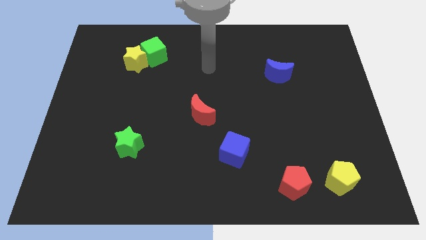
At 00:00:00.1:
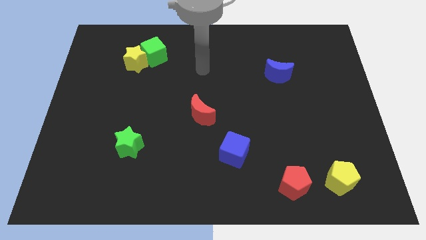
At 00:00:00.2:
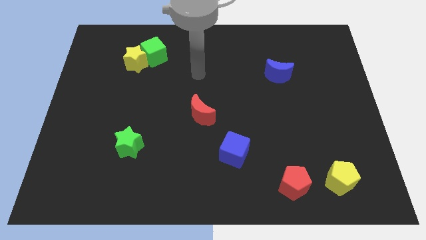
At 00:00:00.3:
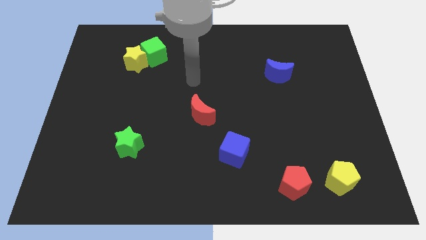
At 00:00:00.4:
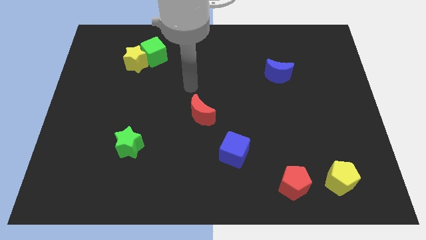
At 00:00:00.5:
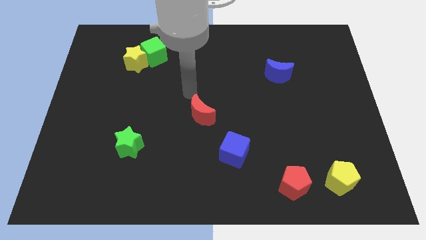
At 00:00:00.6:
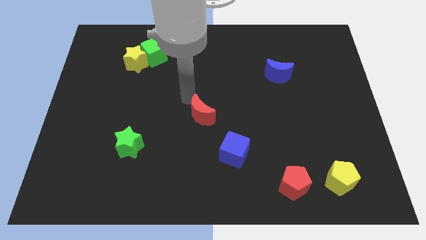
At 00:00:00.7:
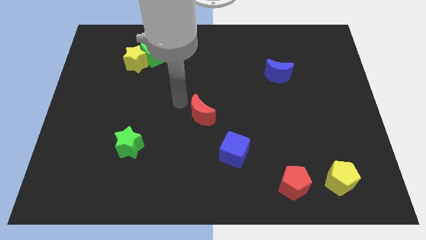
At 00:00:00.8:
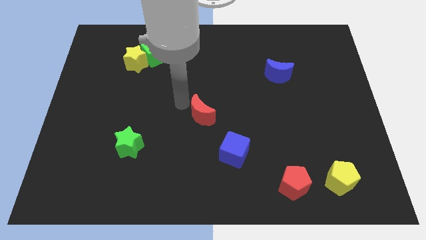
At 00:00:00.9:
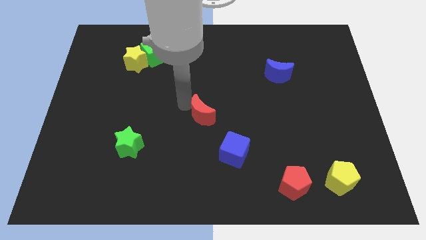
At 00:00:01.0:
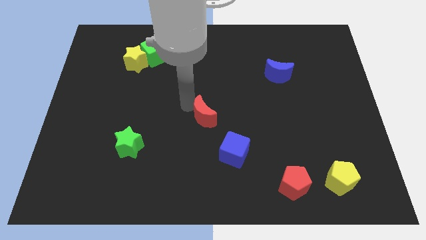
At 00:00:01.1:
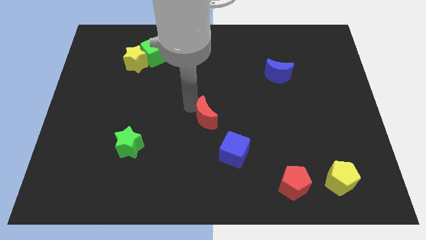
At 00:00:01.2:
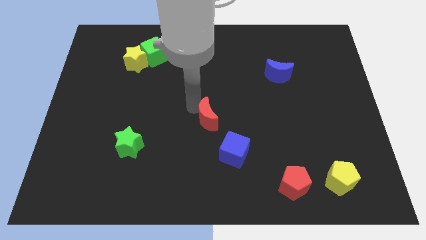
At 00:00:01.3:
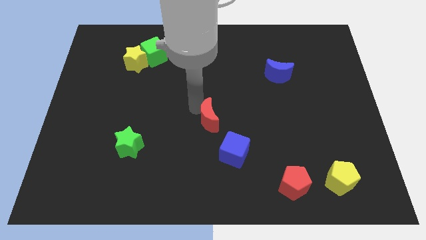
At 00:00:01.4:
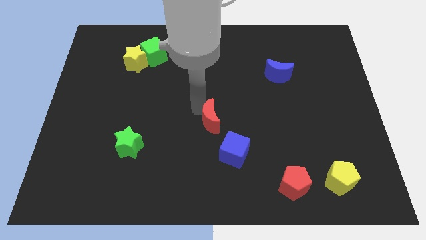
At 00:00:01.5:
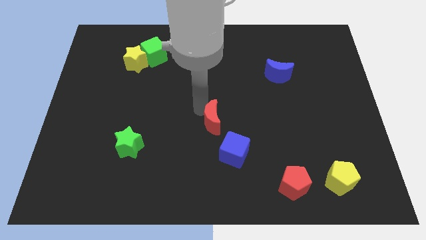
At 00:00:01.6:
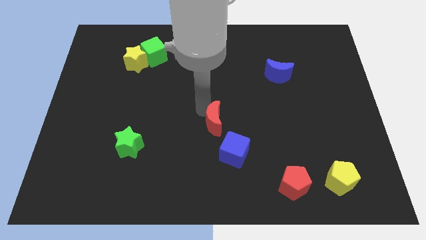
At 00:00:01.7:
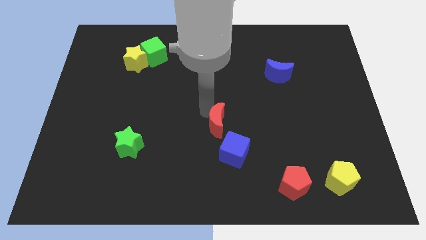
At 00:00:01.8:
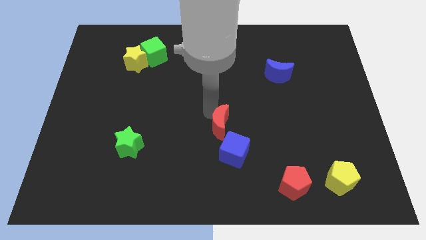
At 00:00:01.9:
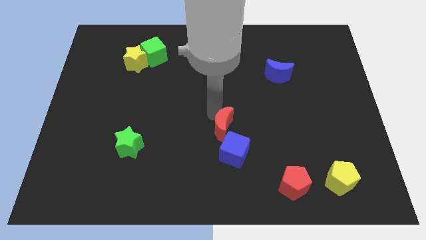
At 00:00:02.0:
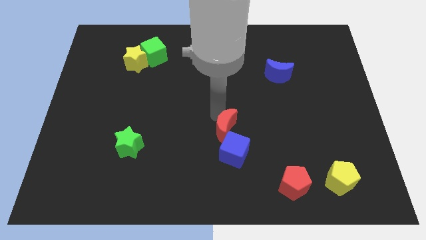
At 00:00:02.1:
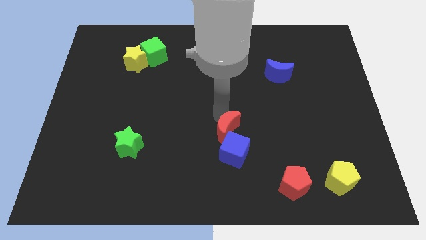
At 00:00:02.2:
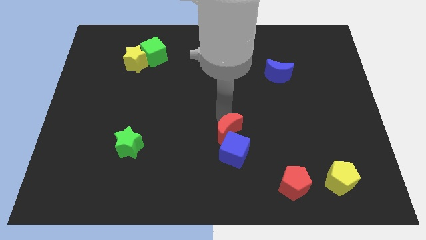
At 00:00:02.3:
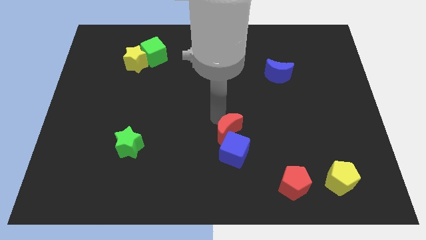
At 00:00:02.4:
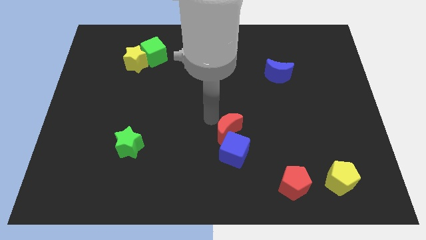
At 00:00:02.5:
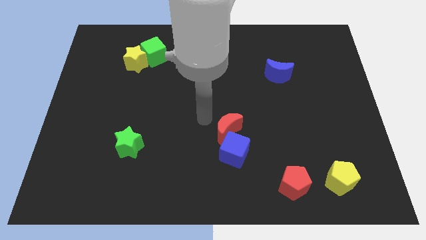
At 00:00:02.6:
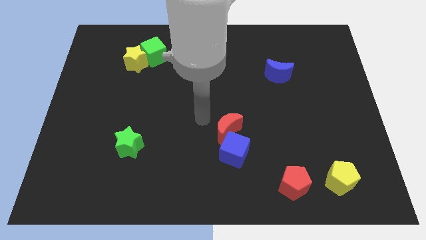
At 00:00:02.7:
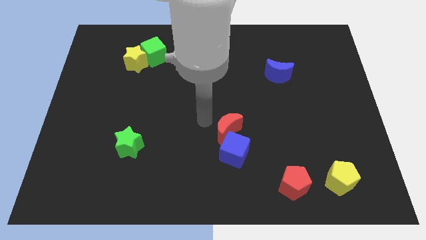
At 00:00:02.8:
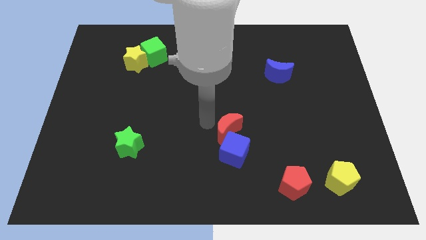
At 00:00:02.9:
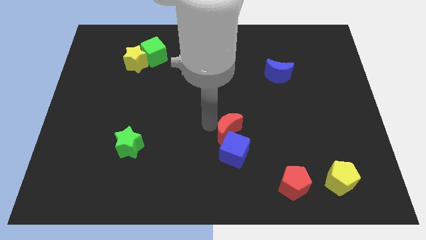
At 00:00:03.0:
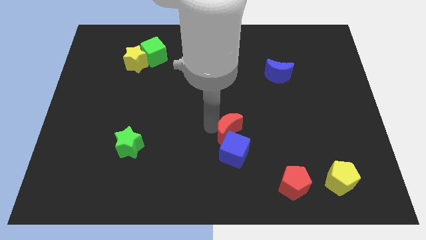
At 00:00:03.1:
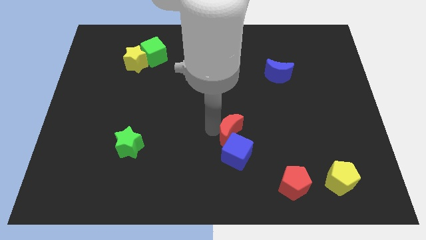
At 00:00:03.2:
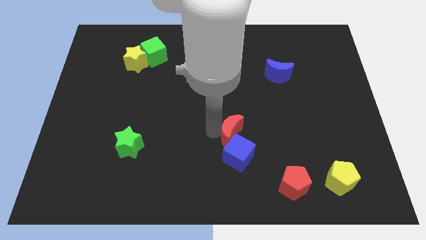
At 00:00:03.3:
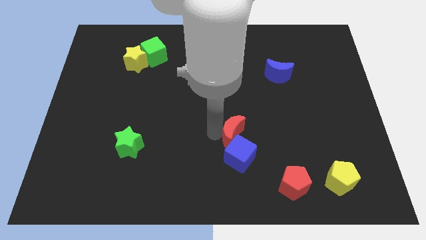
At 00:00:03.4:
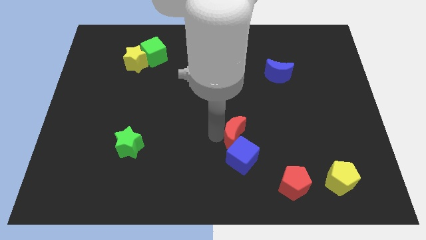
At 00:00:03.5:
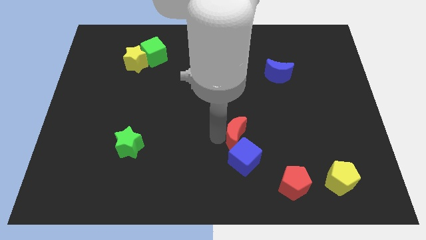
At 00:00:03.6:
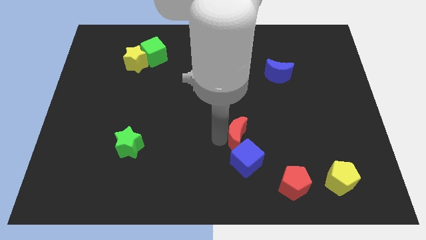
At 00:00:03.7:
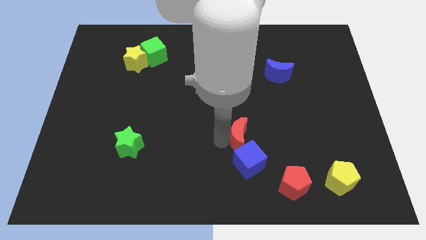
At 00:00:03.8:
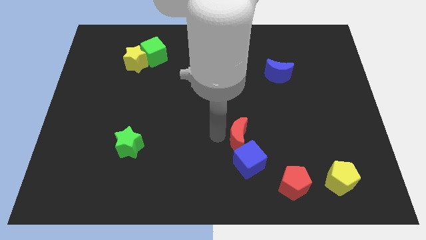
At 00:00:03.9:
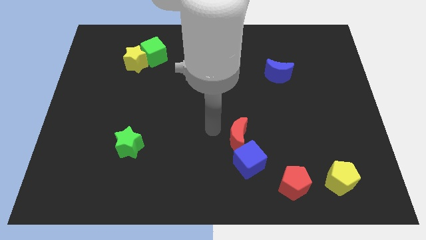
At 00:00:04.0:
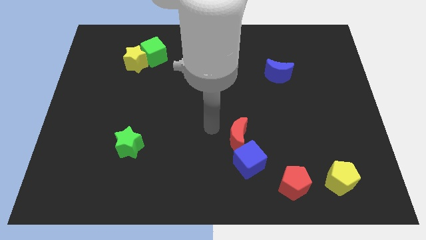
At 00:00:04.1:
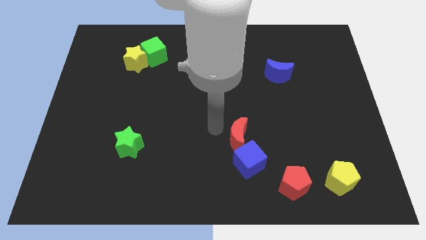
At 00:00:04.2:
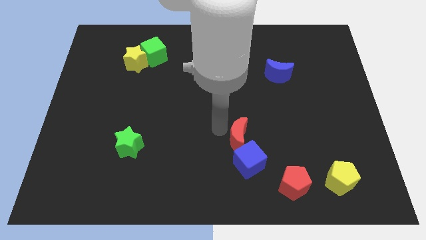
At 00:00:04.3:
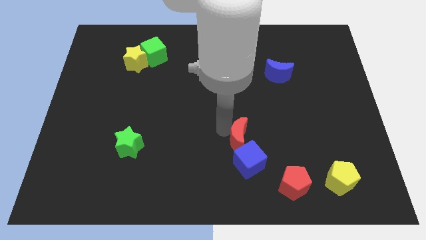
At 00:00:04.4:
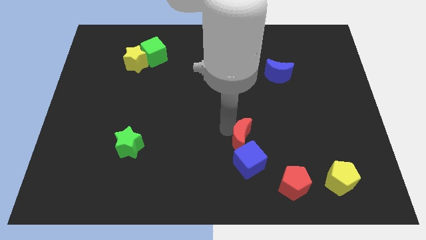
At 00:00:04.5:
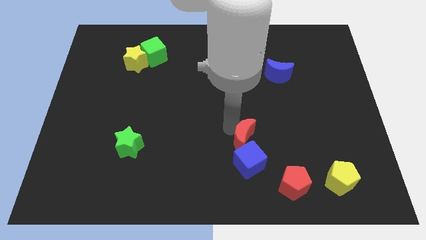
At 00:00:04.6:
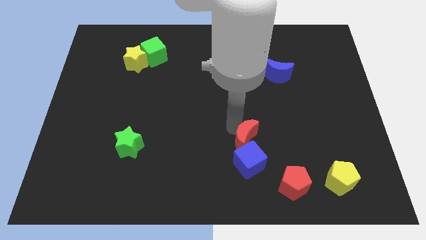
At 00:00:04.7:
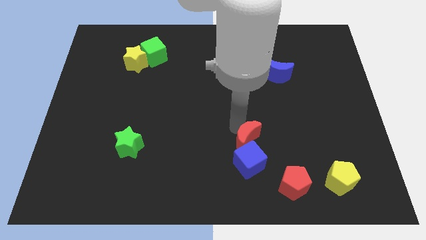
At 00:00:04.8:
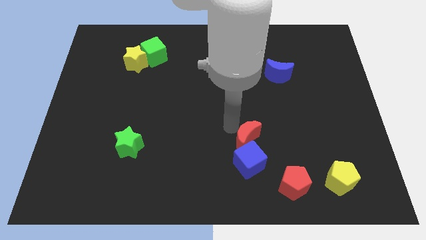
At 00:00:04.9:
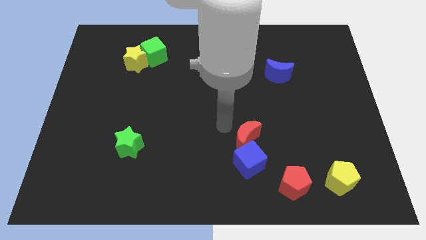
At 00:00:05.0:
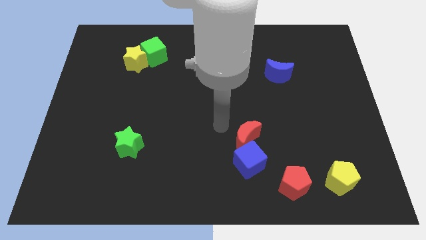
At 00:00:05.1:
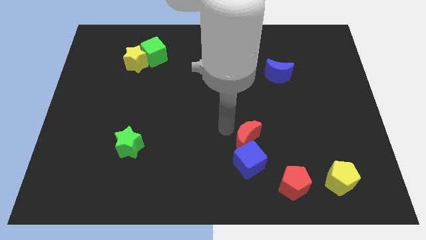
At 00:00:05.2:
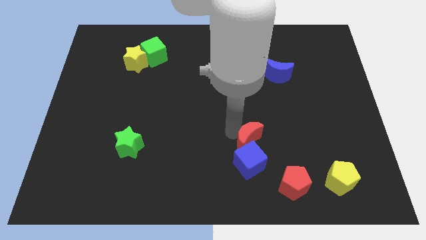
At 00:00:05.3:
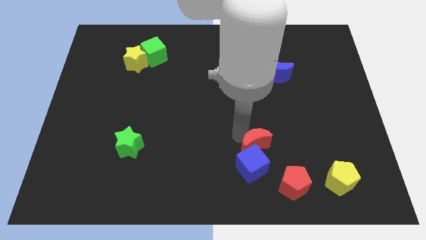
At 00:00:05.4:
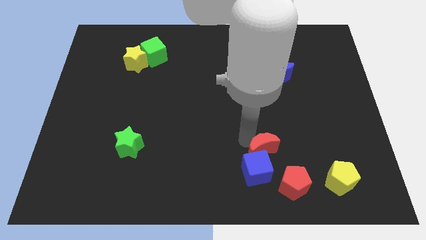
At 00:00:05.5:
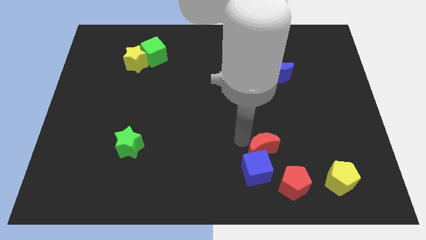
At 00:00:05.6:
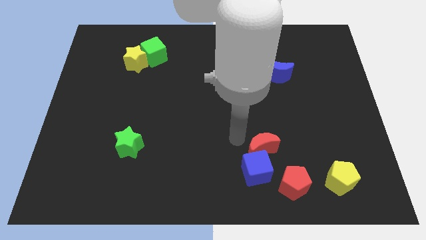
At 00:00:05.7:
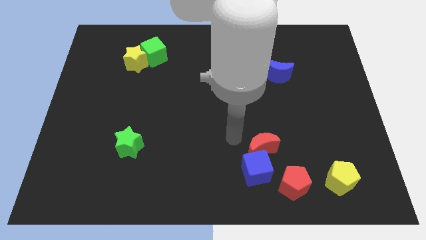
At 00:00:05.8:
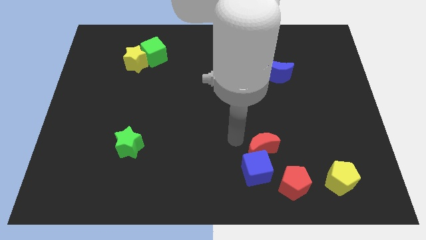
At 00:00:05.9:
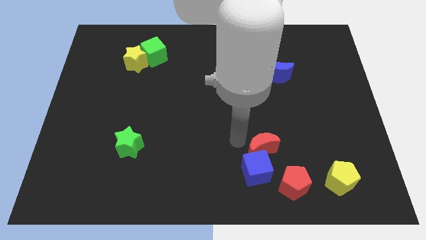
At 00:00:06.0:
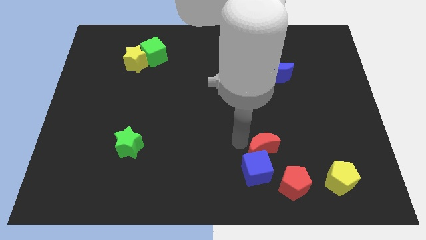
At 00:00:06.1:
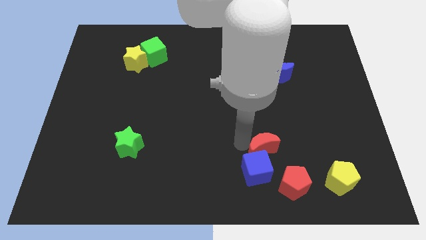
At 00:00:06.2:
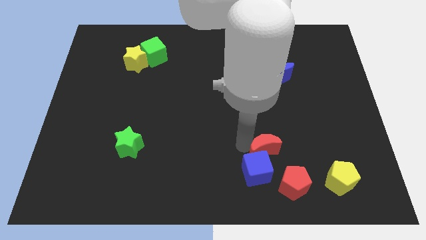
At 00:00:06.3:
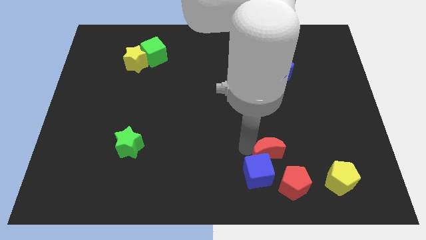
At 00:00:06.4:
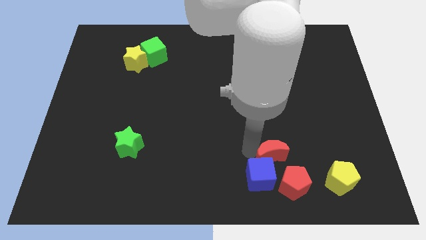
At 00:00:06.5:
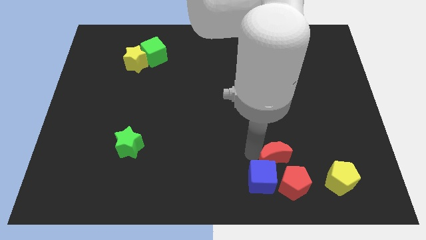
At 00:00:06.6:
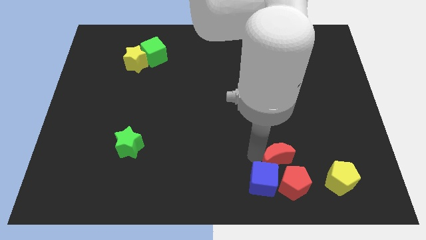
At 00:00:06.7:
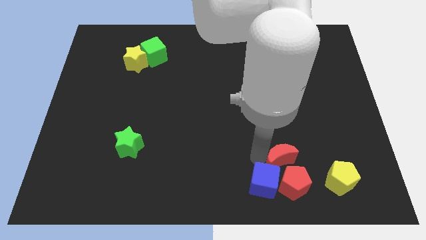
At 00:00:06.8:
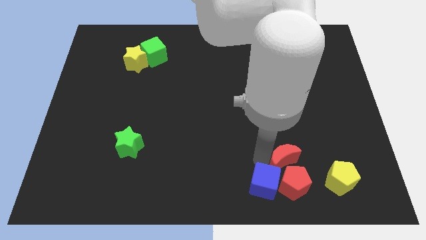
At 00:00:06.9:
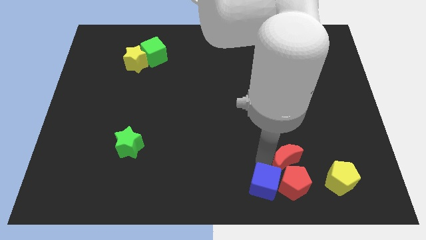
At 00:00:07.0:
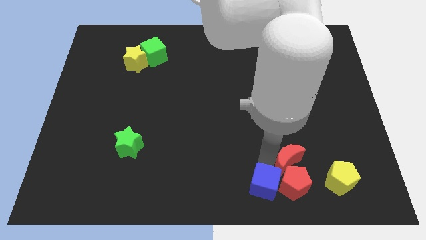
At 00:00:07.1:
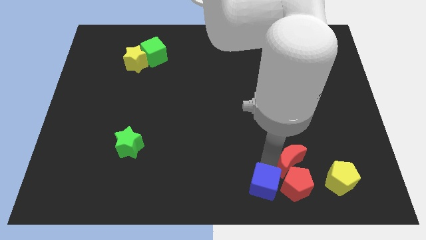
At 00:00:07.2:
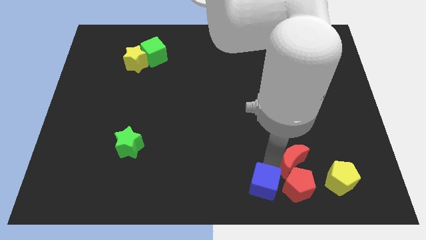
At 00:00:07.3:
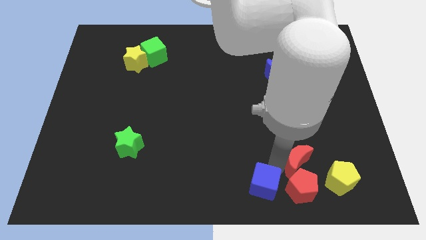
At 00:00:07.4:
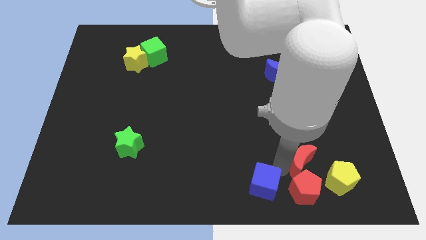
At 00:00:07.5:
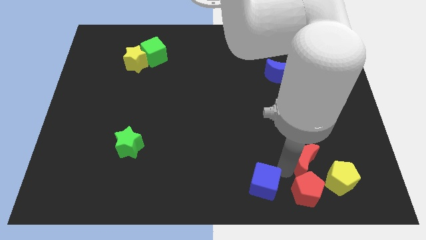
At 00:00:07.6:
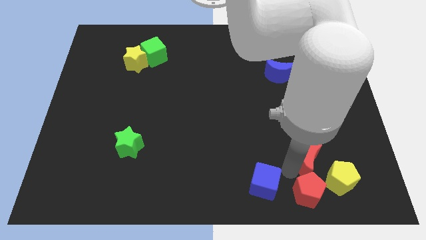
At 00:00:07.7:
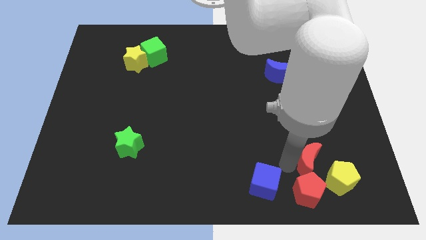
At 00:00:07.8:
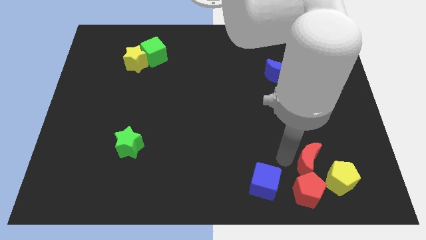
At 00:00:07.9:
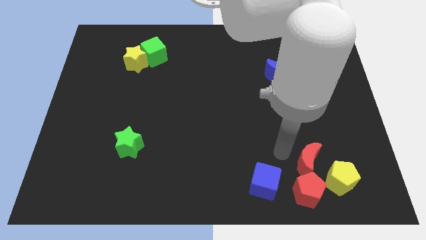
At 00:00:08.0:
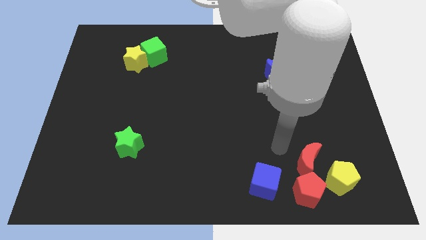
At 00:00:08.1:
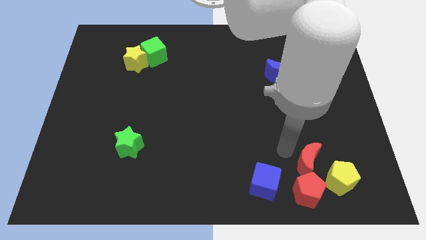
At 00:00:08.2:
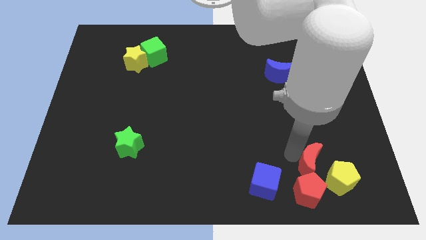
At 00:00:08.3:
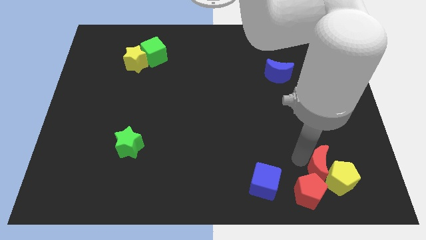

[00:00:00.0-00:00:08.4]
slide the red moon towards the yellow pentagon
